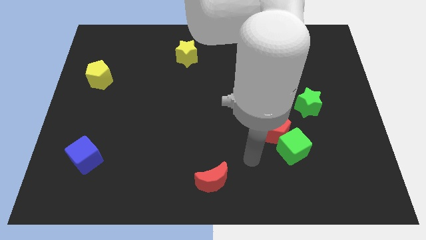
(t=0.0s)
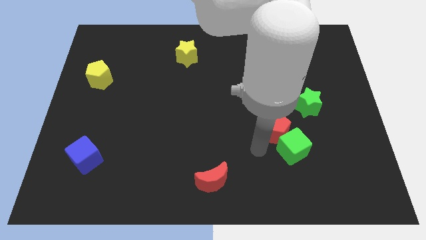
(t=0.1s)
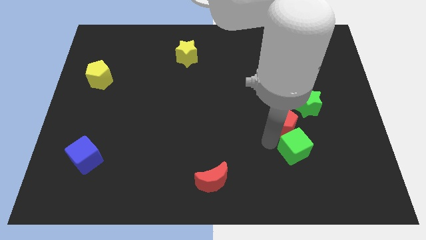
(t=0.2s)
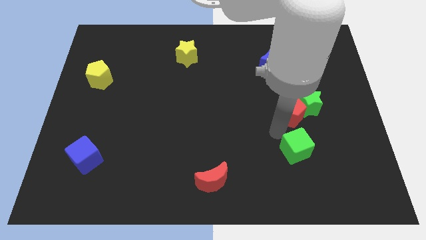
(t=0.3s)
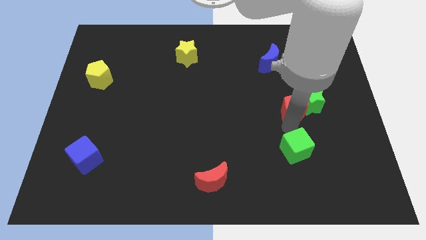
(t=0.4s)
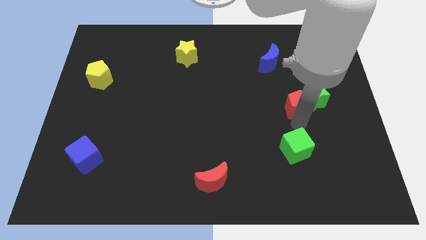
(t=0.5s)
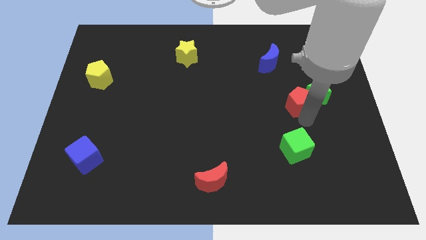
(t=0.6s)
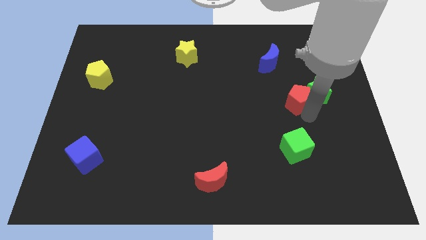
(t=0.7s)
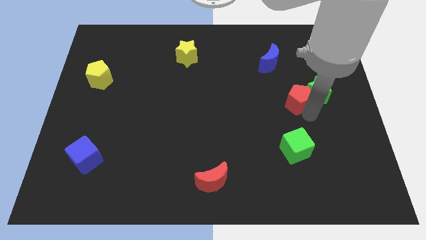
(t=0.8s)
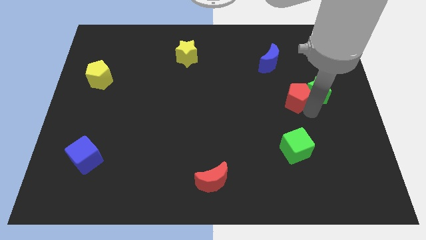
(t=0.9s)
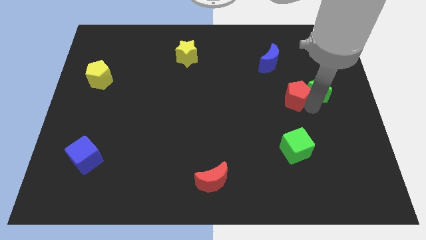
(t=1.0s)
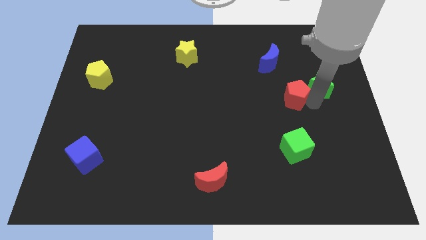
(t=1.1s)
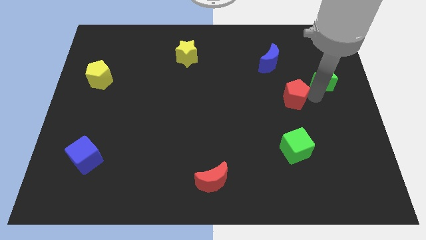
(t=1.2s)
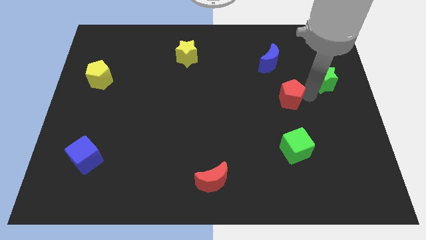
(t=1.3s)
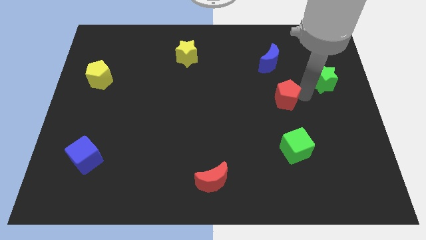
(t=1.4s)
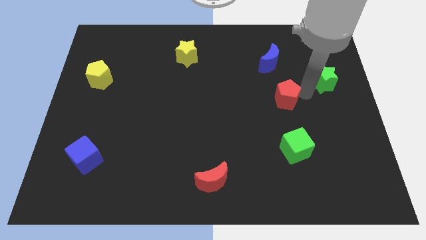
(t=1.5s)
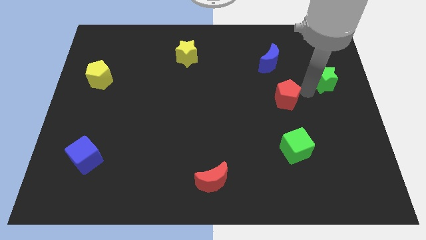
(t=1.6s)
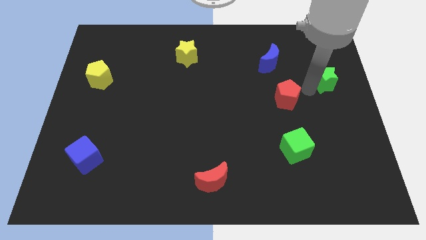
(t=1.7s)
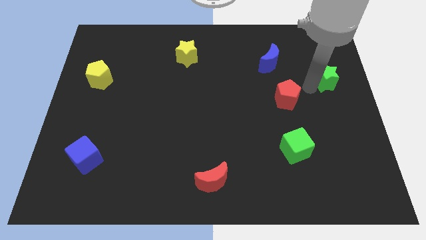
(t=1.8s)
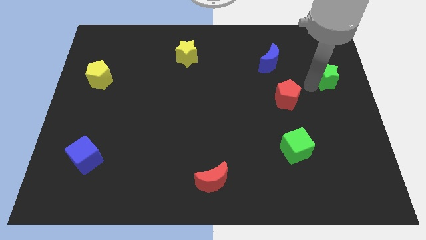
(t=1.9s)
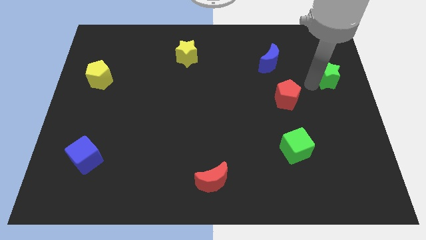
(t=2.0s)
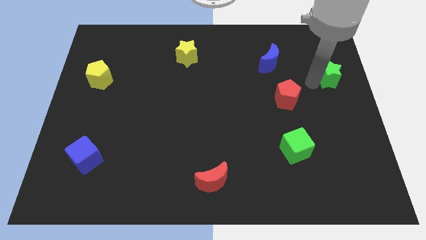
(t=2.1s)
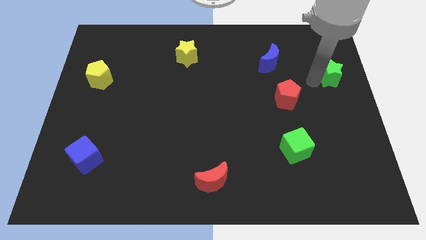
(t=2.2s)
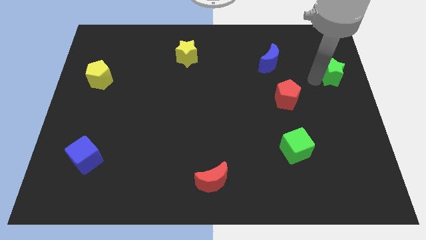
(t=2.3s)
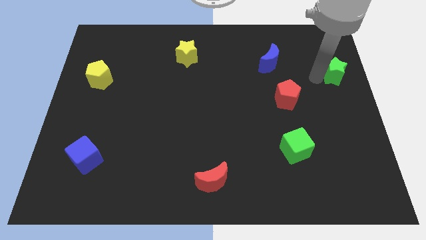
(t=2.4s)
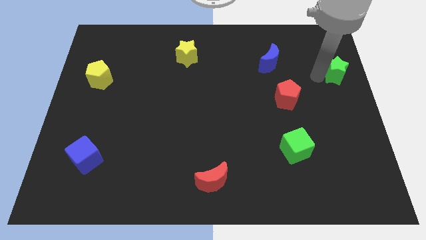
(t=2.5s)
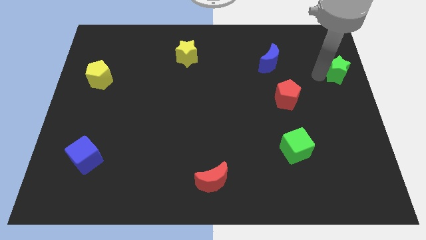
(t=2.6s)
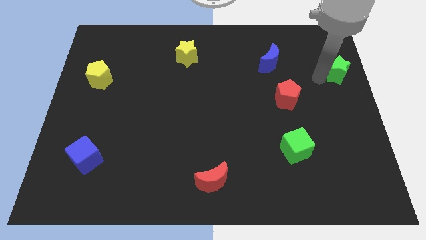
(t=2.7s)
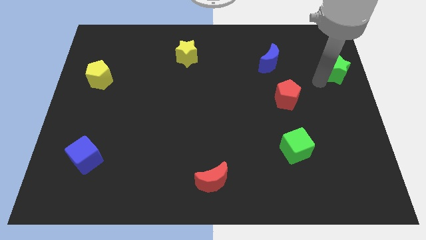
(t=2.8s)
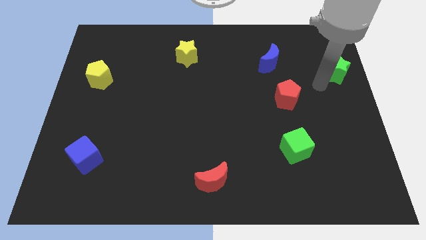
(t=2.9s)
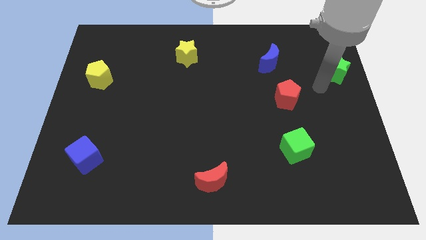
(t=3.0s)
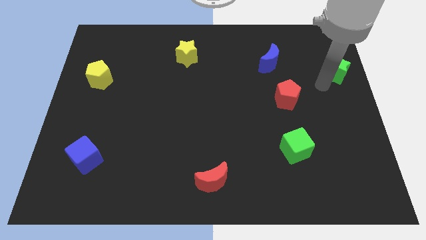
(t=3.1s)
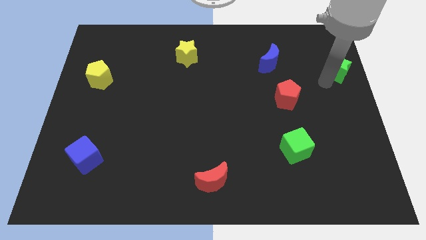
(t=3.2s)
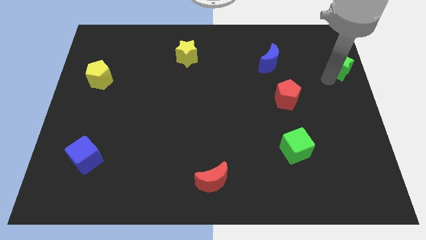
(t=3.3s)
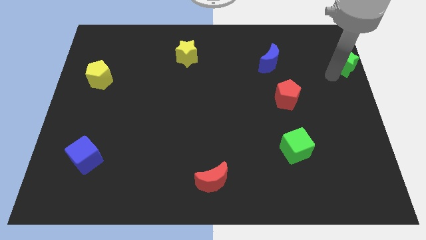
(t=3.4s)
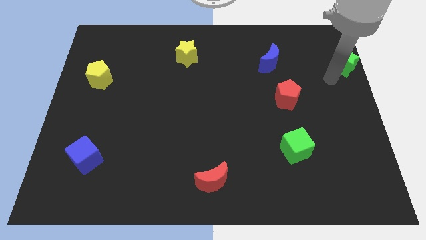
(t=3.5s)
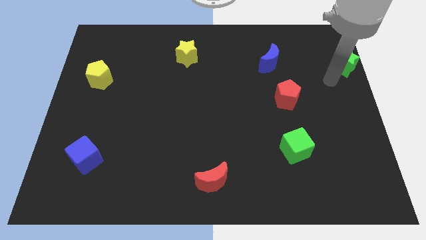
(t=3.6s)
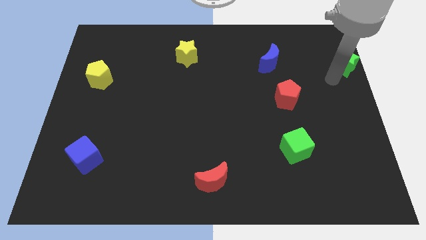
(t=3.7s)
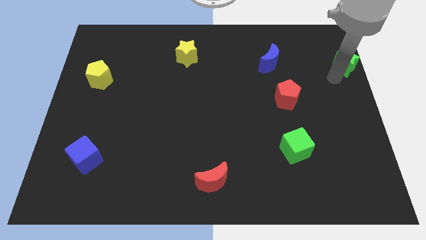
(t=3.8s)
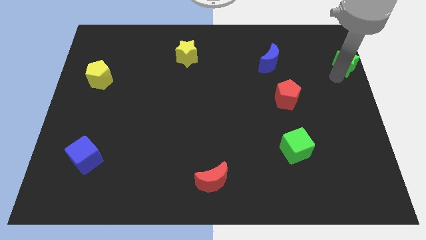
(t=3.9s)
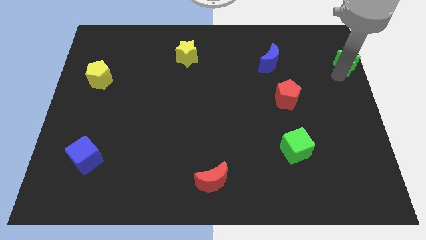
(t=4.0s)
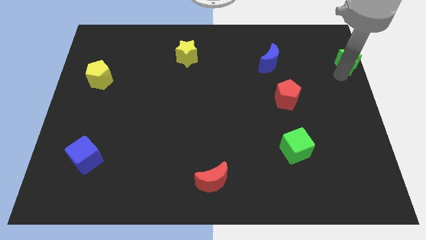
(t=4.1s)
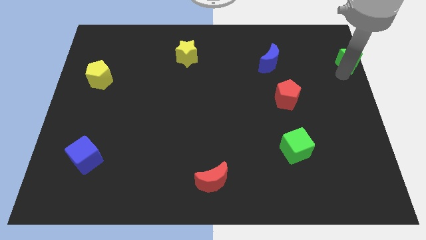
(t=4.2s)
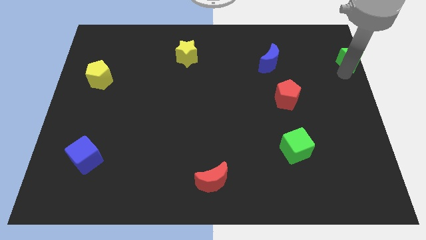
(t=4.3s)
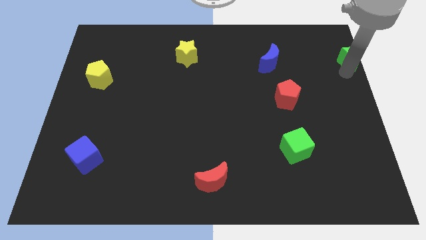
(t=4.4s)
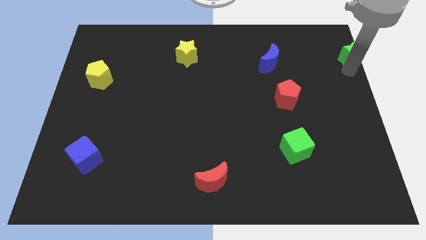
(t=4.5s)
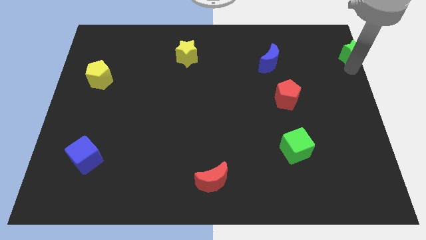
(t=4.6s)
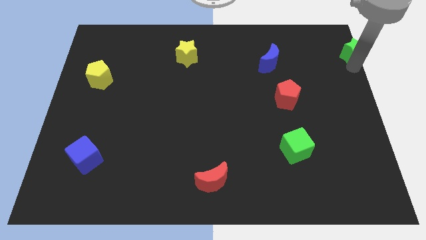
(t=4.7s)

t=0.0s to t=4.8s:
slide the green star to the top right corner

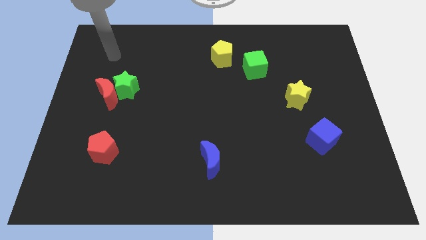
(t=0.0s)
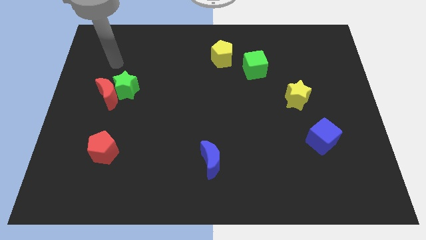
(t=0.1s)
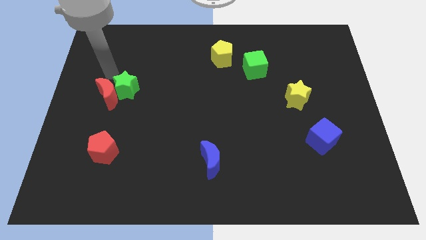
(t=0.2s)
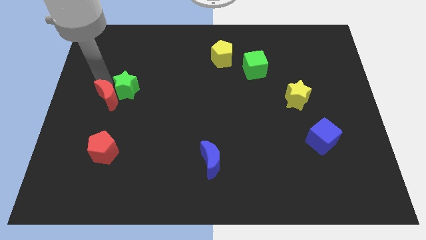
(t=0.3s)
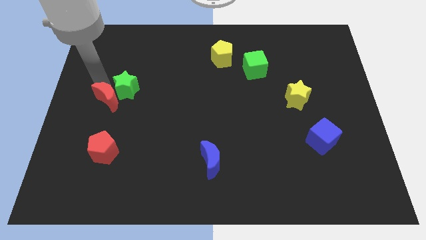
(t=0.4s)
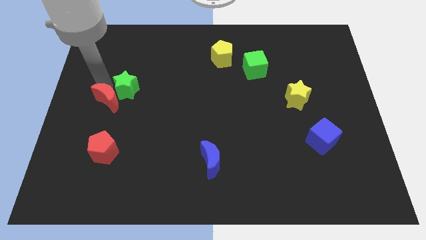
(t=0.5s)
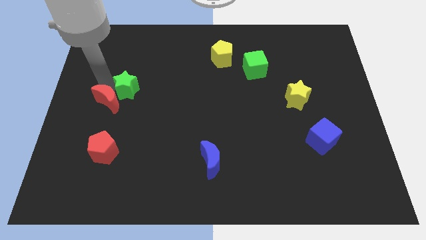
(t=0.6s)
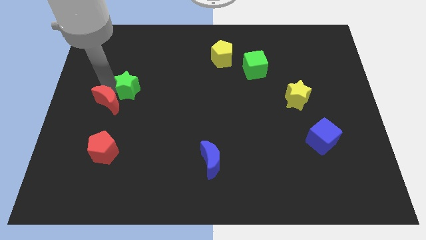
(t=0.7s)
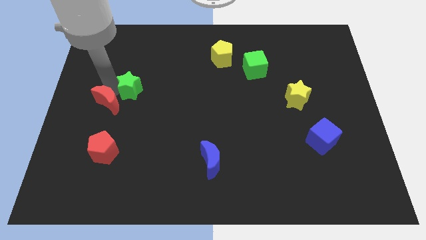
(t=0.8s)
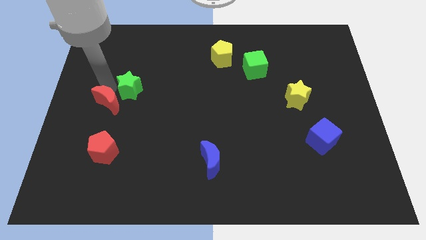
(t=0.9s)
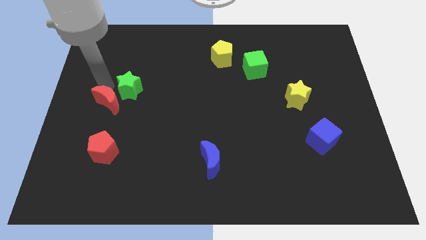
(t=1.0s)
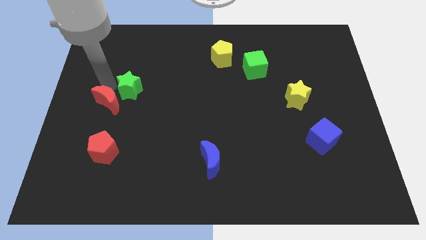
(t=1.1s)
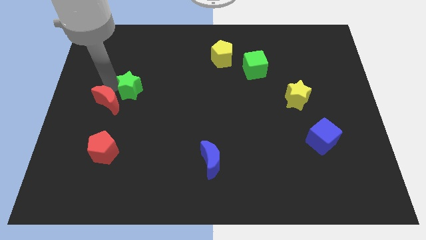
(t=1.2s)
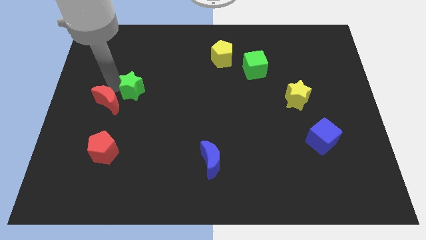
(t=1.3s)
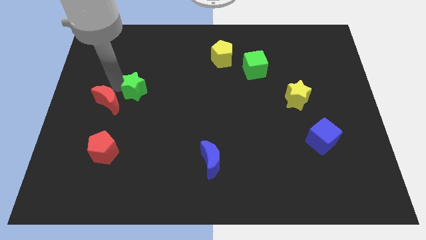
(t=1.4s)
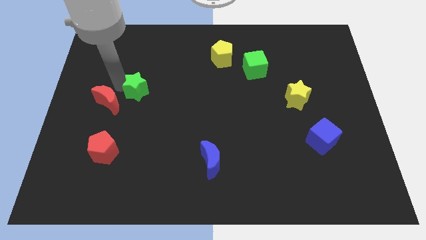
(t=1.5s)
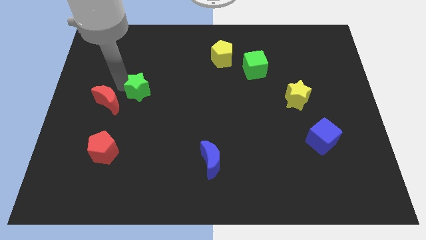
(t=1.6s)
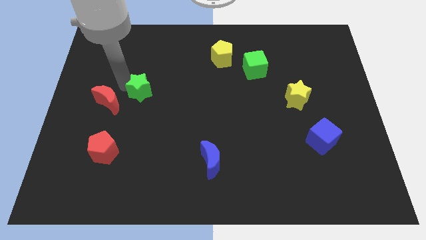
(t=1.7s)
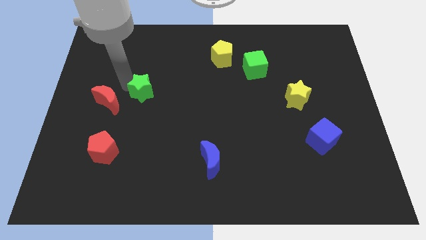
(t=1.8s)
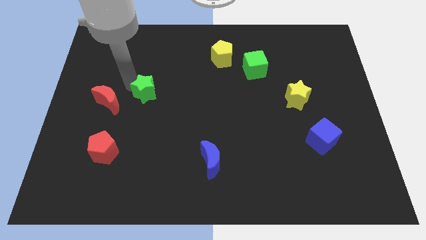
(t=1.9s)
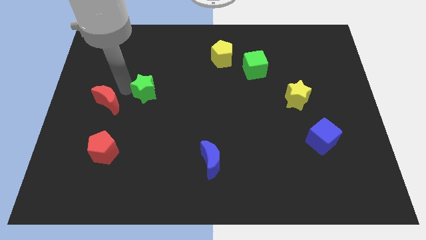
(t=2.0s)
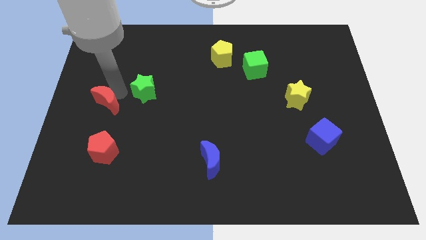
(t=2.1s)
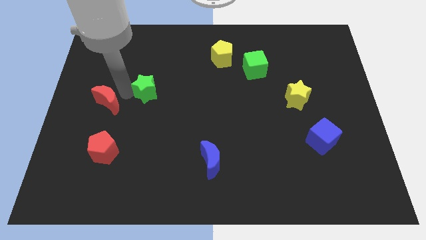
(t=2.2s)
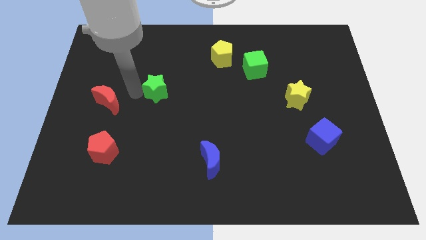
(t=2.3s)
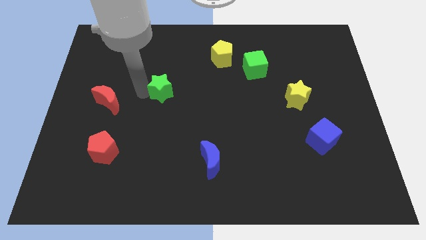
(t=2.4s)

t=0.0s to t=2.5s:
move the green star to the middle of the board
